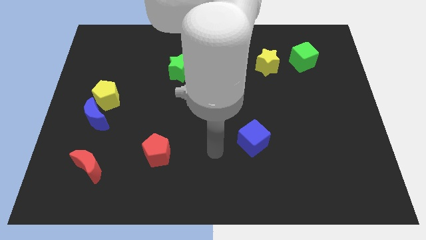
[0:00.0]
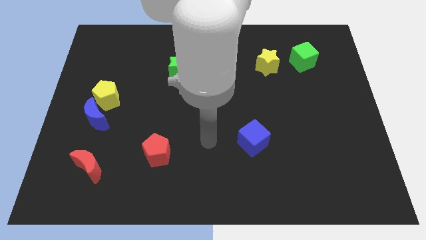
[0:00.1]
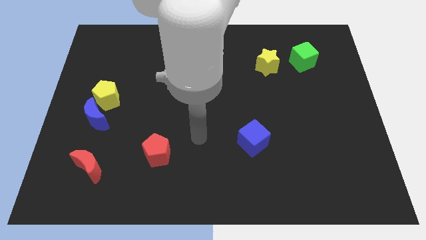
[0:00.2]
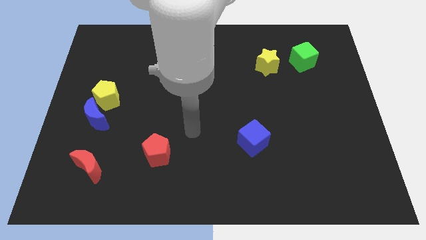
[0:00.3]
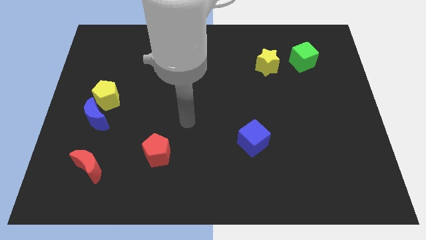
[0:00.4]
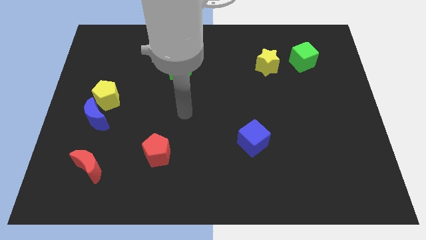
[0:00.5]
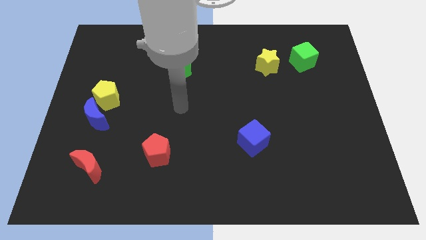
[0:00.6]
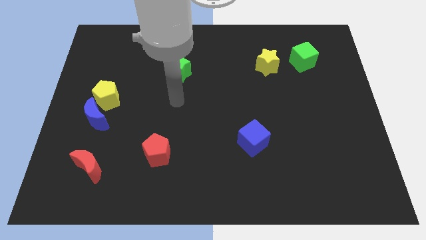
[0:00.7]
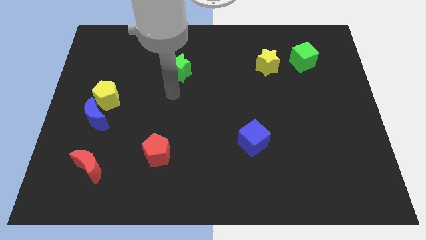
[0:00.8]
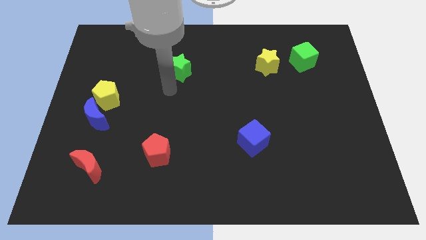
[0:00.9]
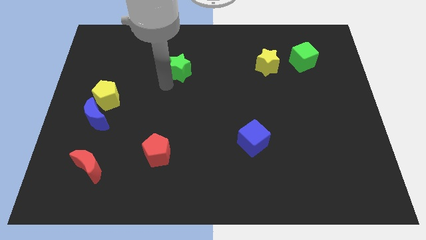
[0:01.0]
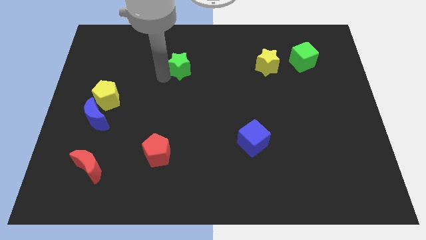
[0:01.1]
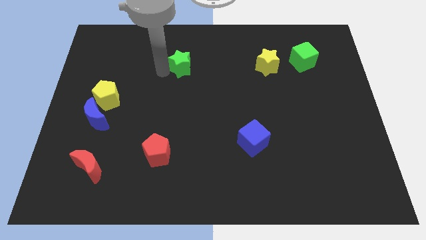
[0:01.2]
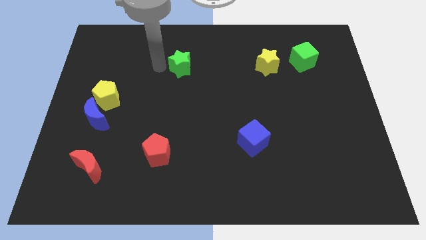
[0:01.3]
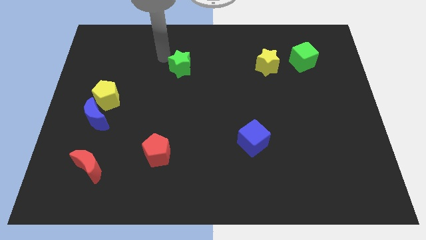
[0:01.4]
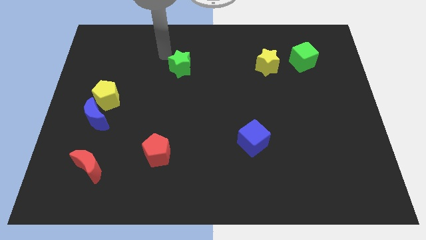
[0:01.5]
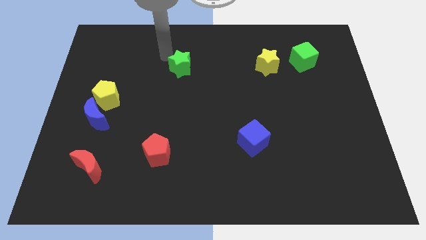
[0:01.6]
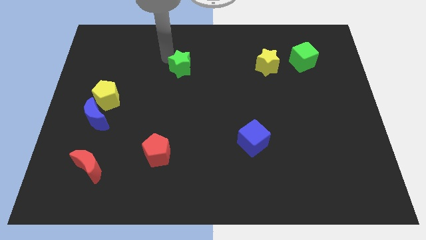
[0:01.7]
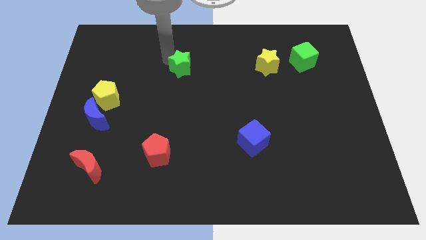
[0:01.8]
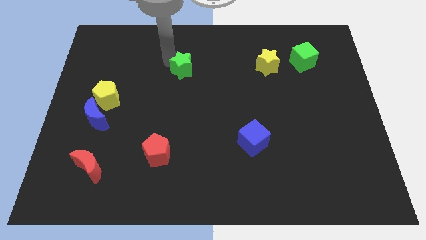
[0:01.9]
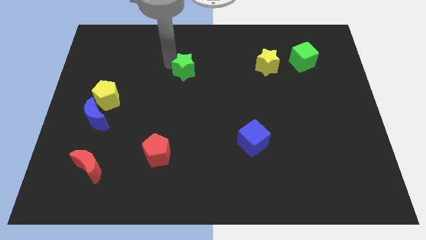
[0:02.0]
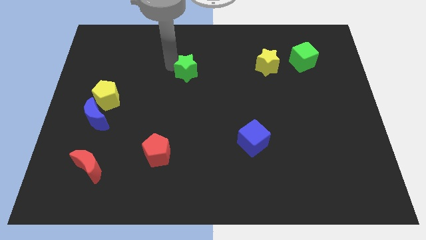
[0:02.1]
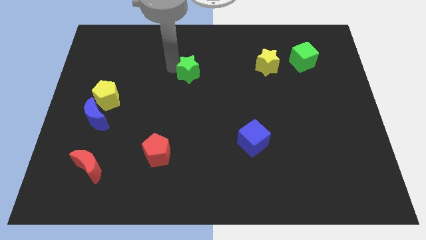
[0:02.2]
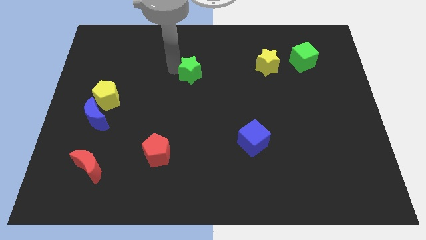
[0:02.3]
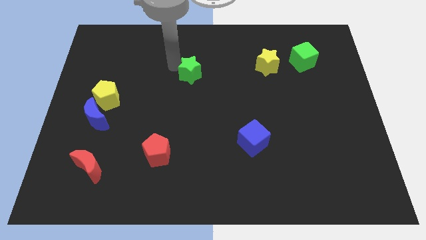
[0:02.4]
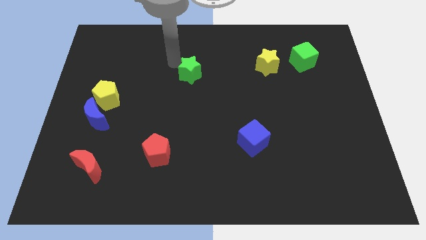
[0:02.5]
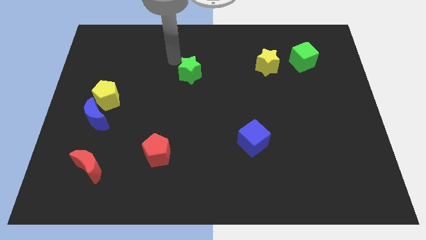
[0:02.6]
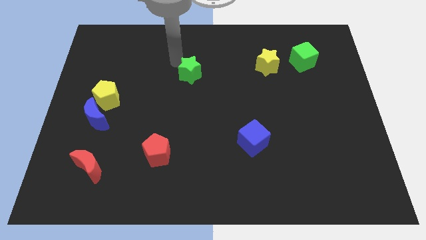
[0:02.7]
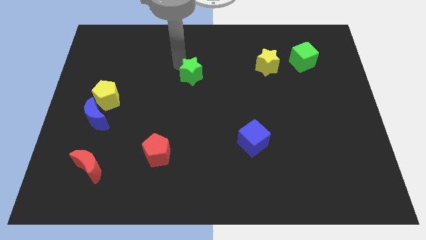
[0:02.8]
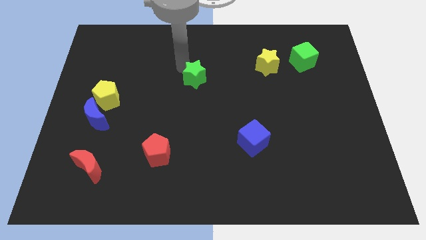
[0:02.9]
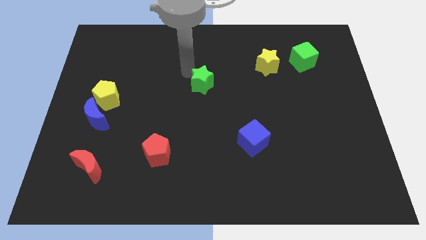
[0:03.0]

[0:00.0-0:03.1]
push the green star diagonally down and right slightly

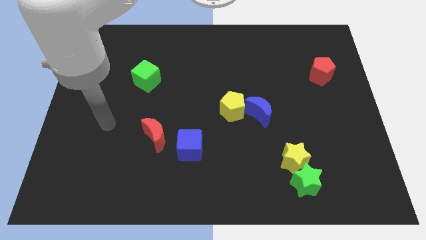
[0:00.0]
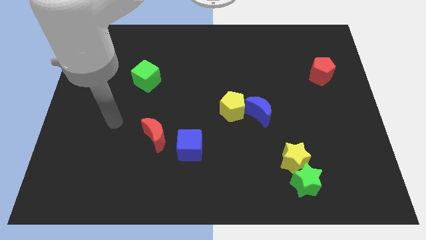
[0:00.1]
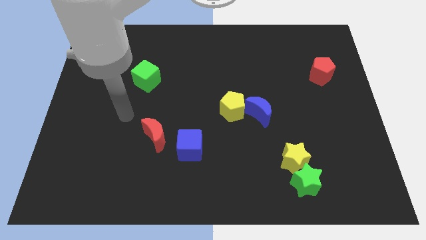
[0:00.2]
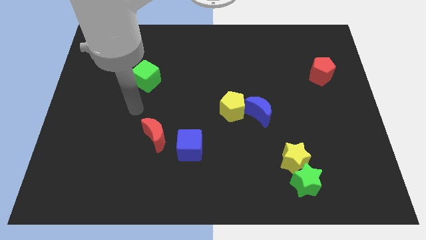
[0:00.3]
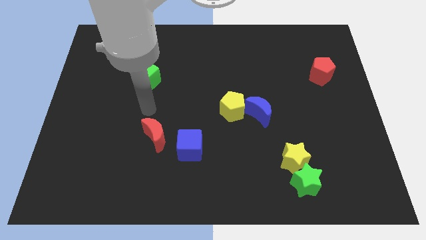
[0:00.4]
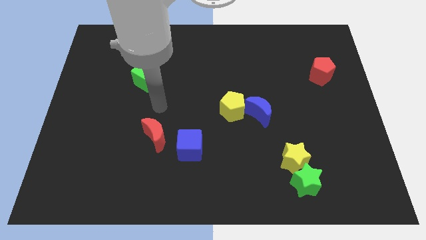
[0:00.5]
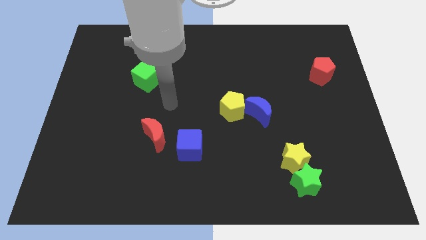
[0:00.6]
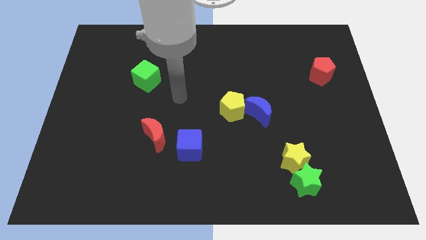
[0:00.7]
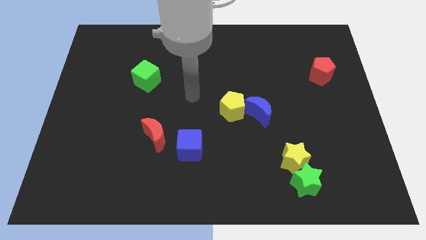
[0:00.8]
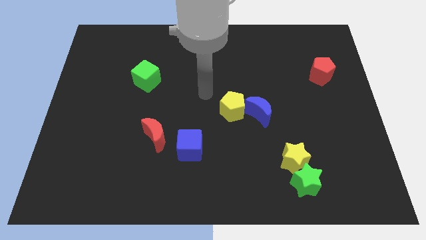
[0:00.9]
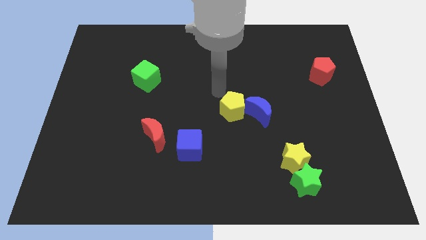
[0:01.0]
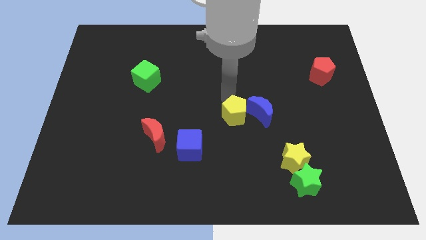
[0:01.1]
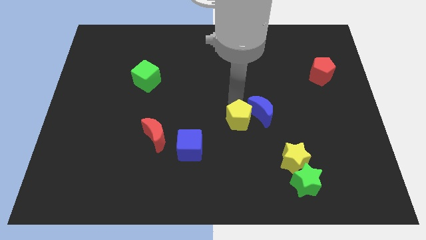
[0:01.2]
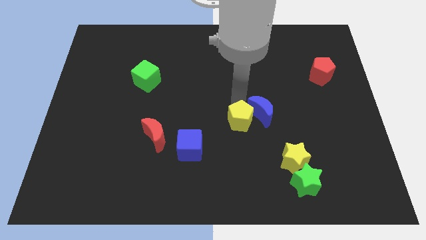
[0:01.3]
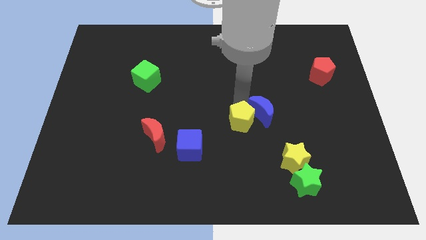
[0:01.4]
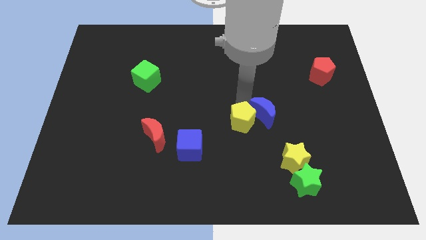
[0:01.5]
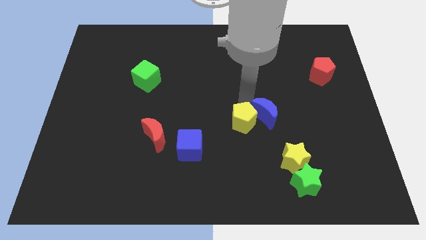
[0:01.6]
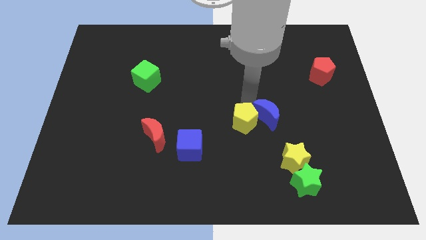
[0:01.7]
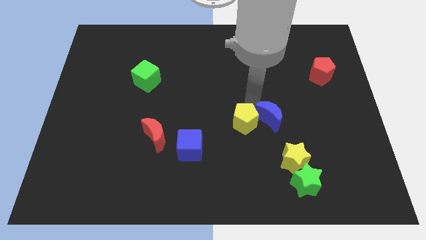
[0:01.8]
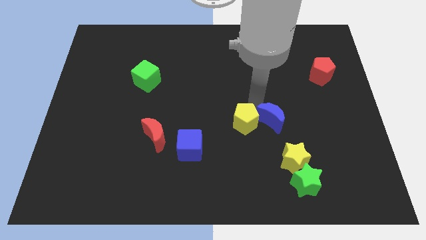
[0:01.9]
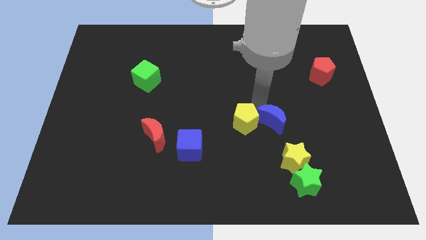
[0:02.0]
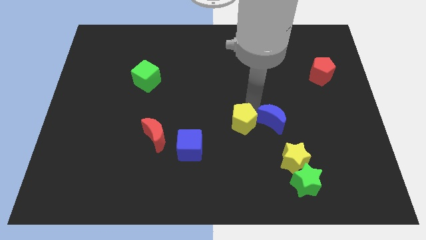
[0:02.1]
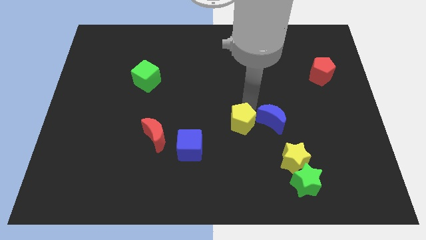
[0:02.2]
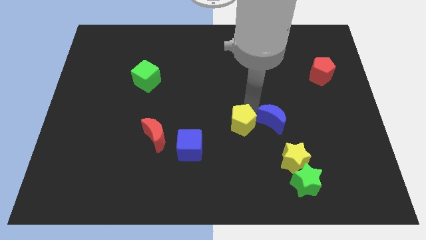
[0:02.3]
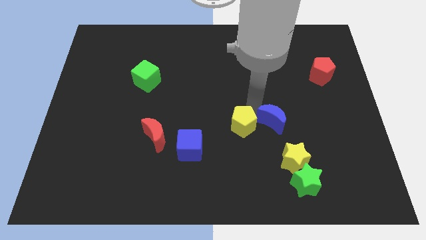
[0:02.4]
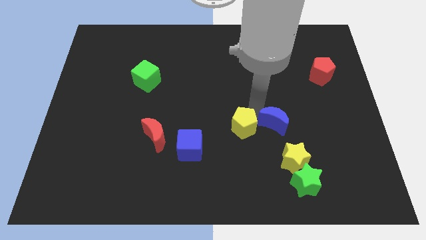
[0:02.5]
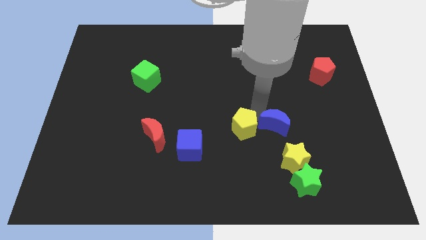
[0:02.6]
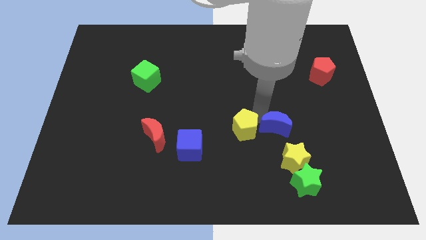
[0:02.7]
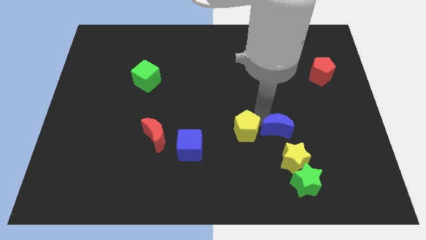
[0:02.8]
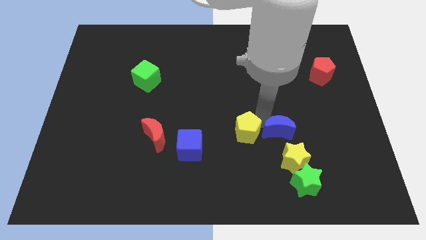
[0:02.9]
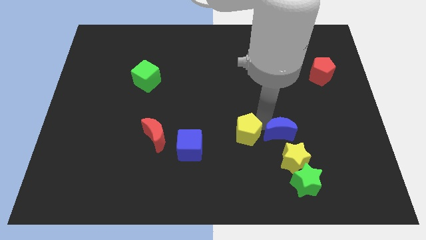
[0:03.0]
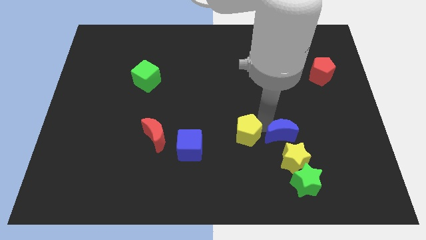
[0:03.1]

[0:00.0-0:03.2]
move the blue moon a bit down and right

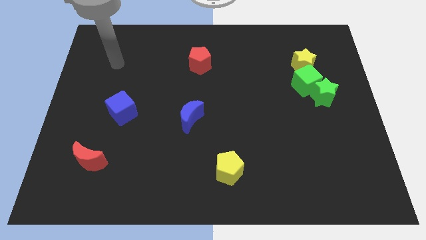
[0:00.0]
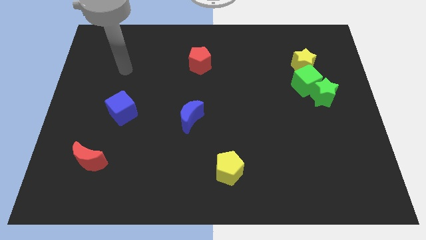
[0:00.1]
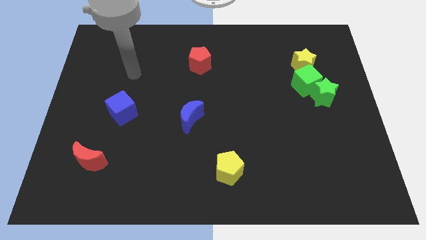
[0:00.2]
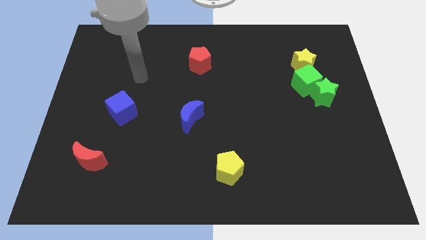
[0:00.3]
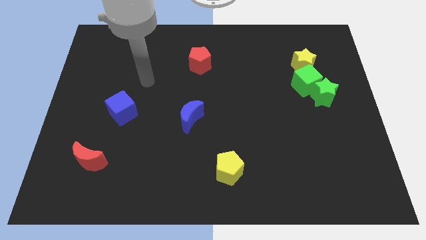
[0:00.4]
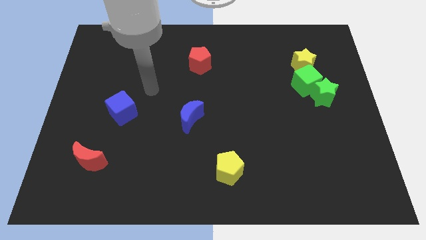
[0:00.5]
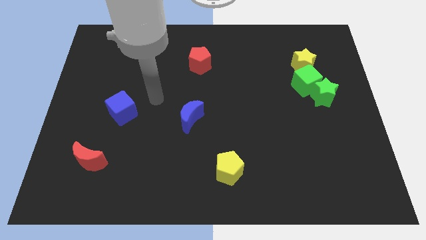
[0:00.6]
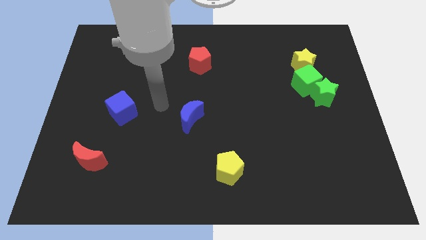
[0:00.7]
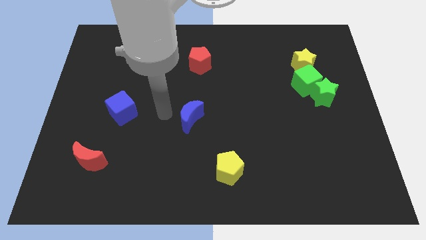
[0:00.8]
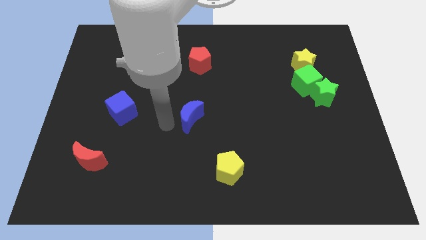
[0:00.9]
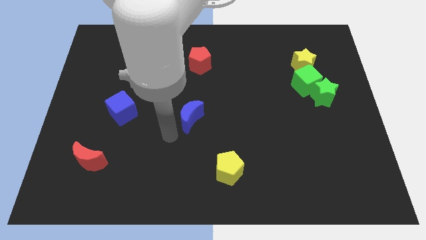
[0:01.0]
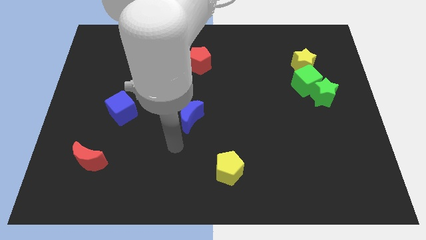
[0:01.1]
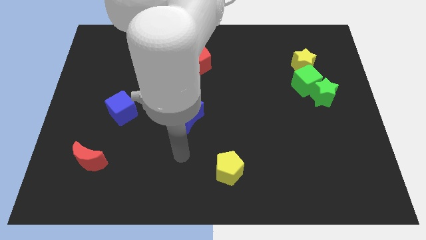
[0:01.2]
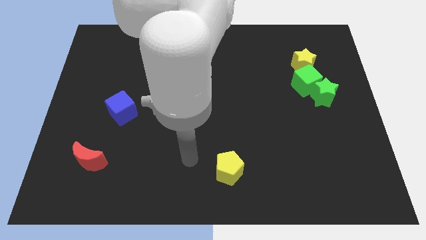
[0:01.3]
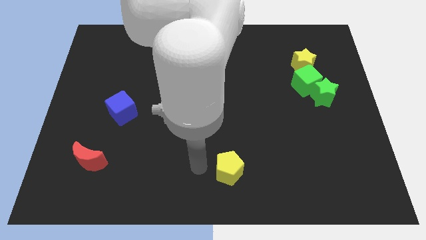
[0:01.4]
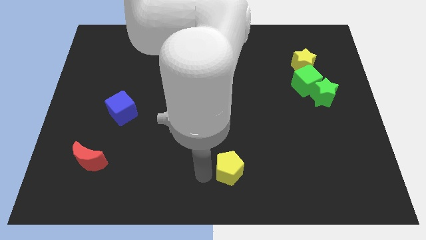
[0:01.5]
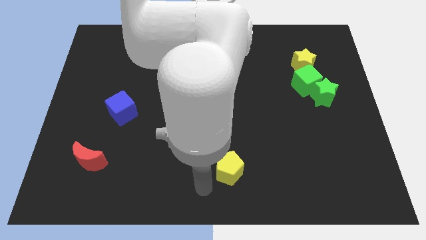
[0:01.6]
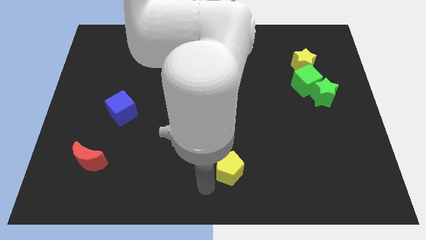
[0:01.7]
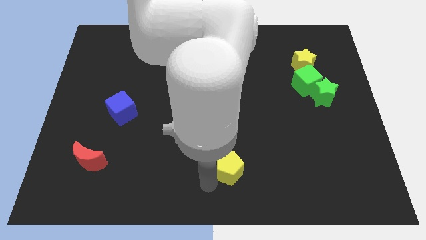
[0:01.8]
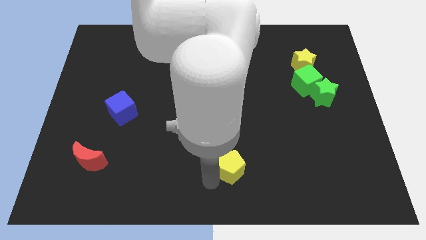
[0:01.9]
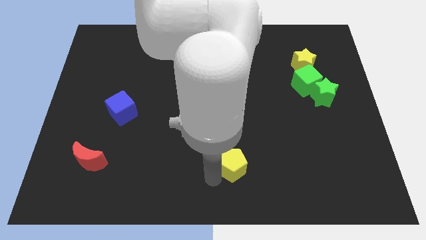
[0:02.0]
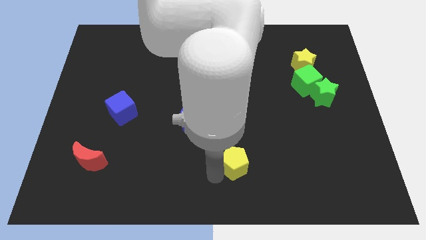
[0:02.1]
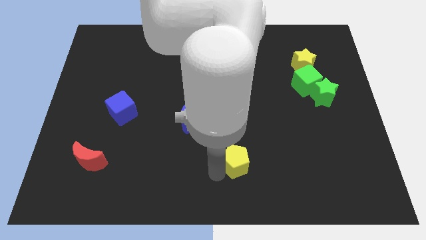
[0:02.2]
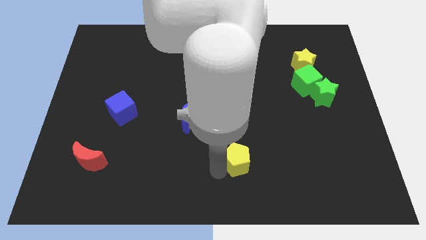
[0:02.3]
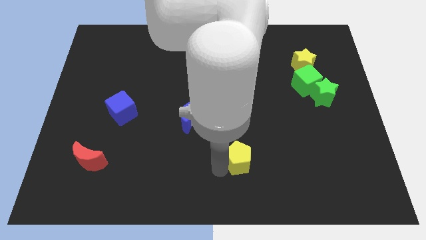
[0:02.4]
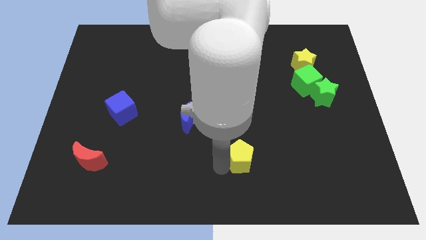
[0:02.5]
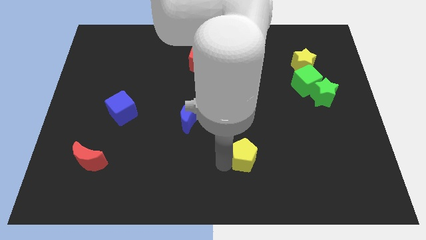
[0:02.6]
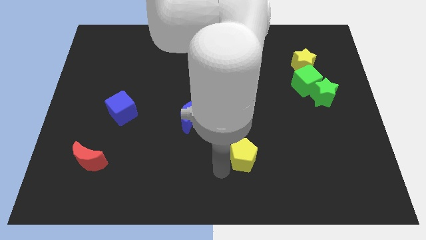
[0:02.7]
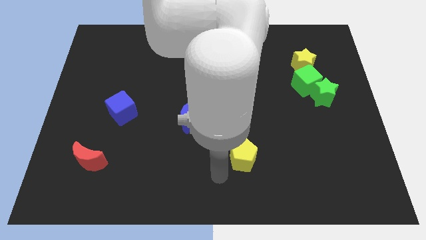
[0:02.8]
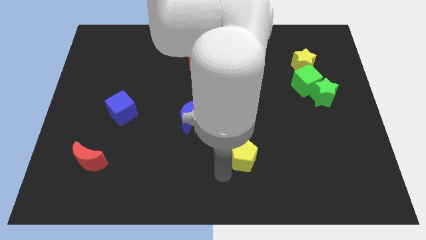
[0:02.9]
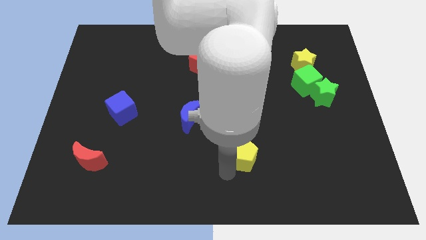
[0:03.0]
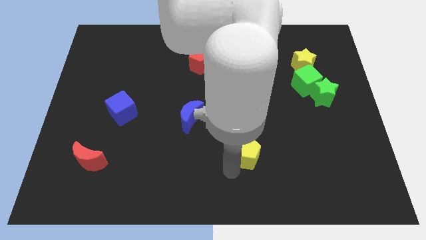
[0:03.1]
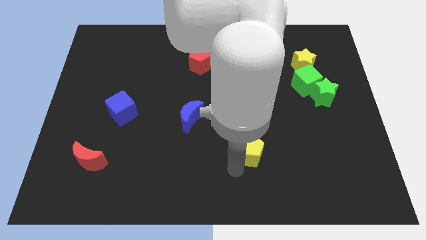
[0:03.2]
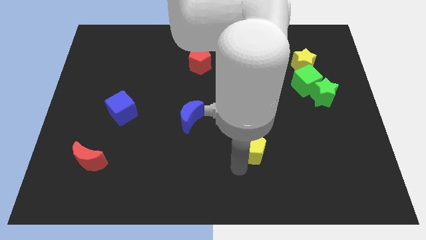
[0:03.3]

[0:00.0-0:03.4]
move the yellow pentagon slightly diagonally upwards and right
